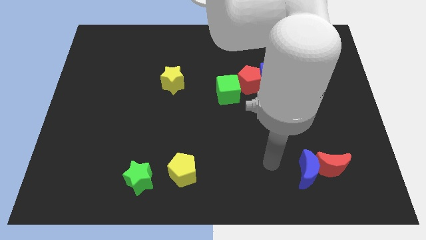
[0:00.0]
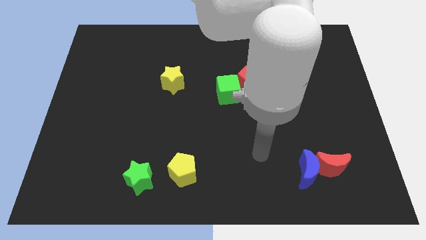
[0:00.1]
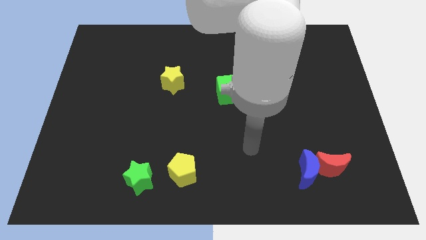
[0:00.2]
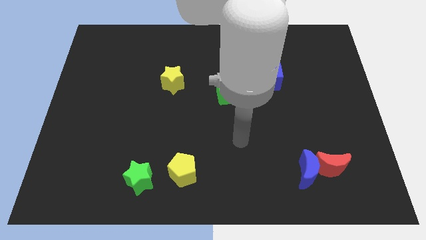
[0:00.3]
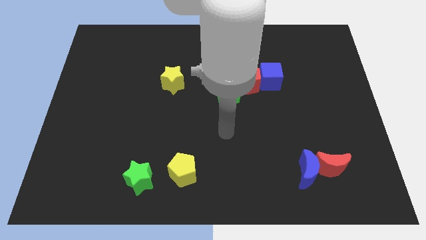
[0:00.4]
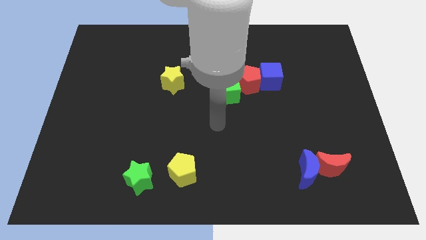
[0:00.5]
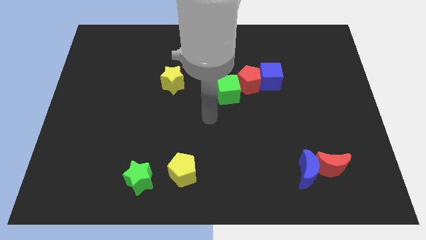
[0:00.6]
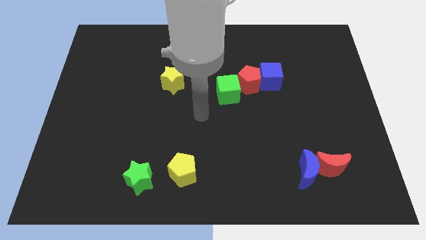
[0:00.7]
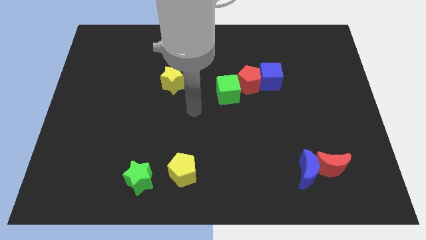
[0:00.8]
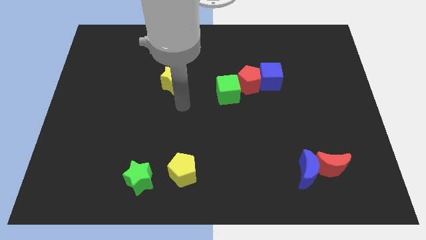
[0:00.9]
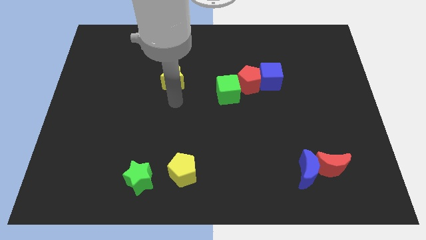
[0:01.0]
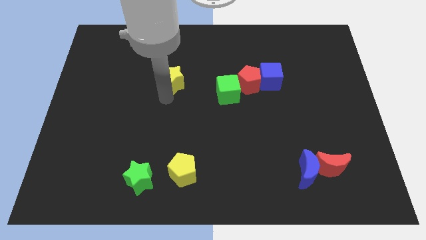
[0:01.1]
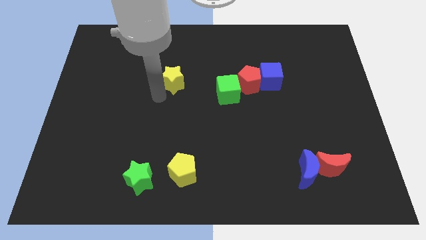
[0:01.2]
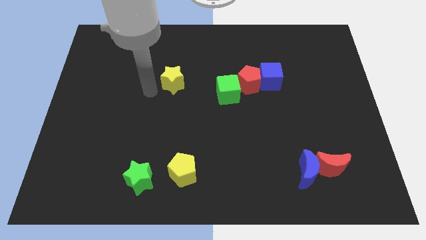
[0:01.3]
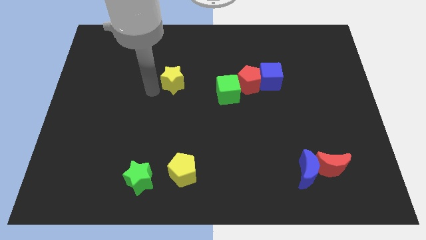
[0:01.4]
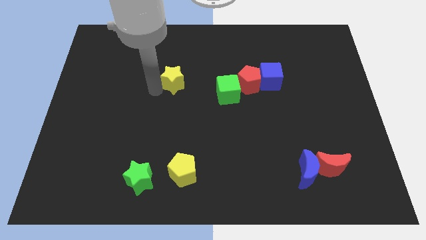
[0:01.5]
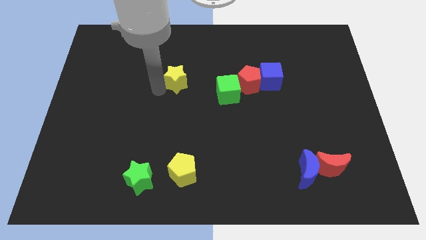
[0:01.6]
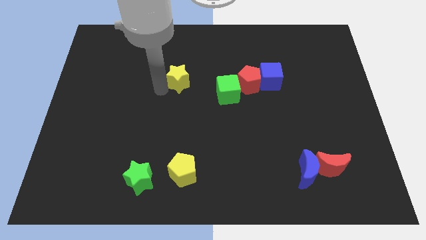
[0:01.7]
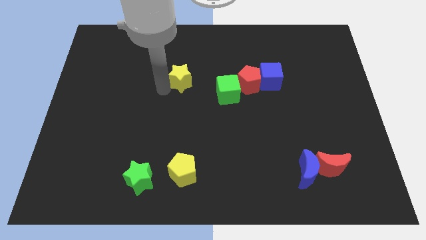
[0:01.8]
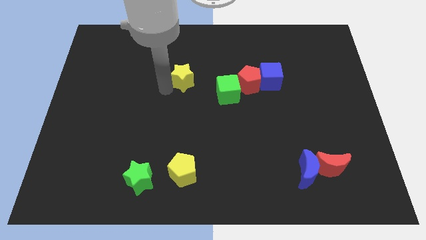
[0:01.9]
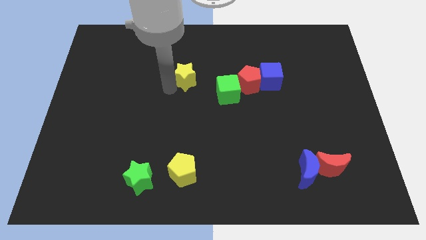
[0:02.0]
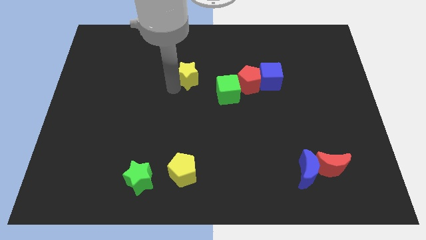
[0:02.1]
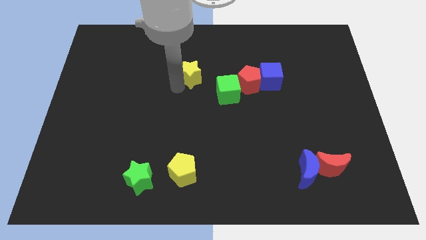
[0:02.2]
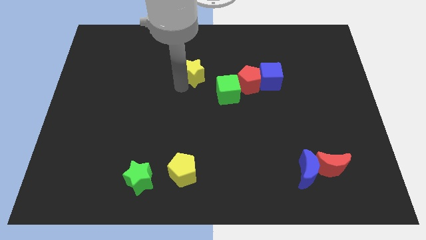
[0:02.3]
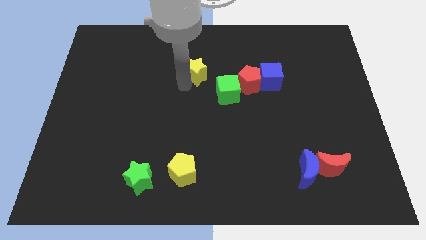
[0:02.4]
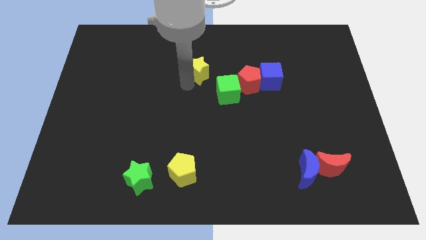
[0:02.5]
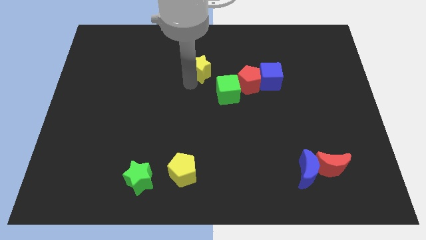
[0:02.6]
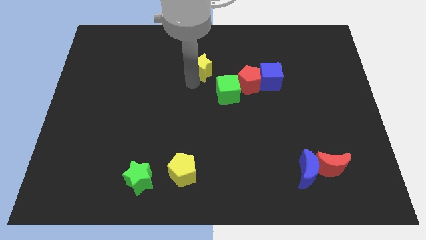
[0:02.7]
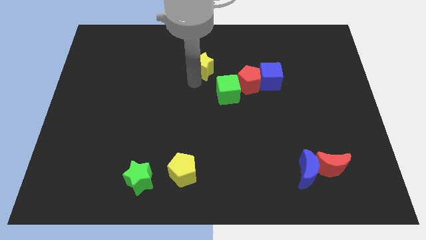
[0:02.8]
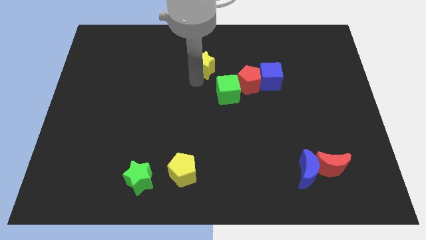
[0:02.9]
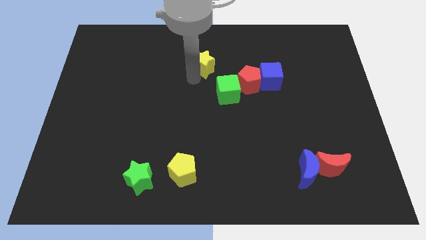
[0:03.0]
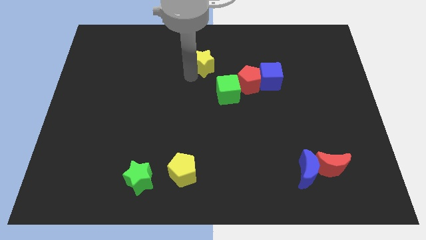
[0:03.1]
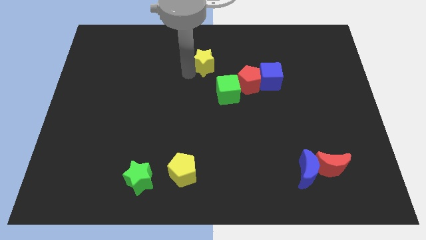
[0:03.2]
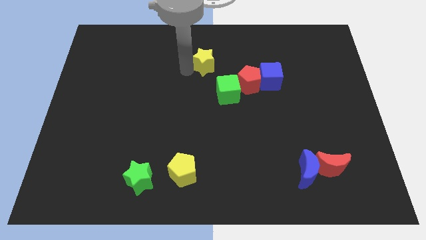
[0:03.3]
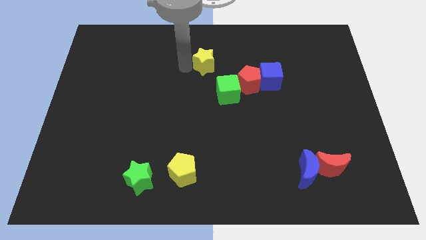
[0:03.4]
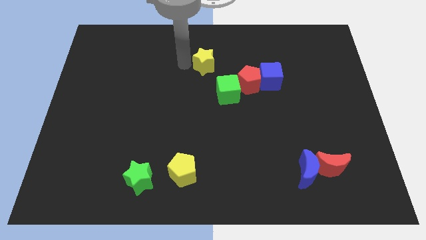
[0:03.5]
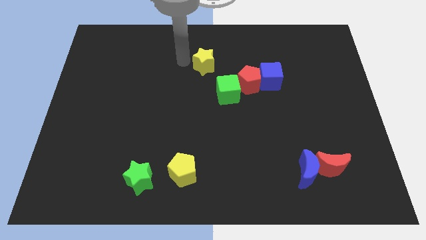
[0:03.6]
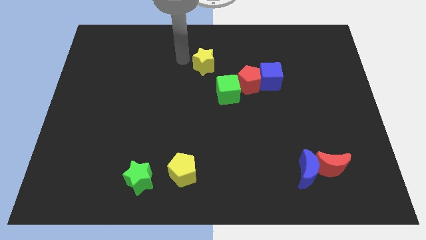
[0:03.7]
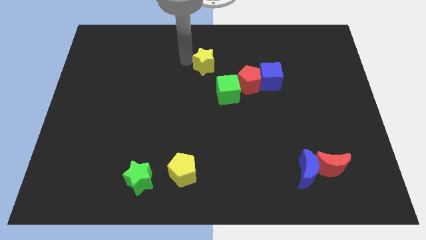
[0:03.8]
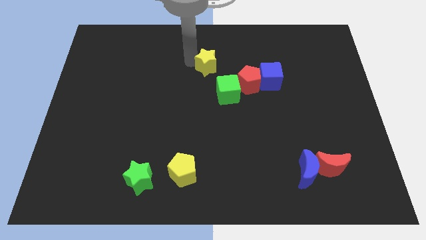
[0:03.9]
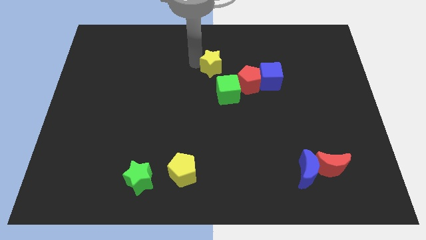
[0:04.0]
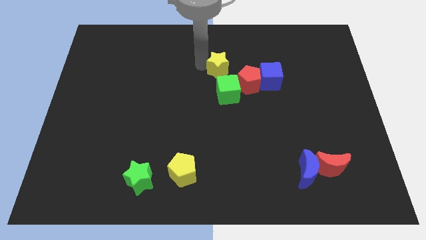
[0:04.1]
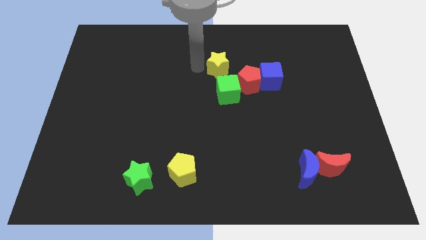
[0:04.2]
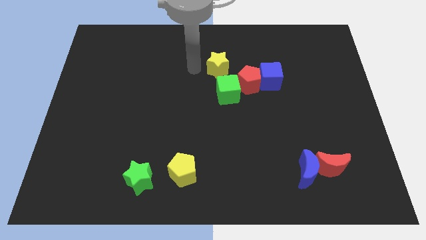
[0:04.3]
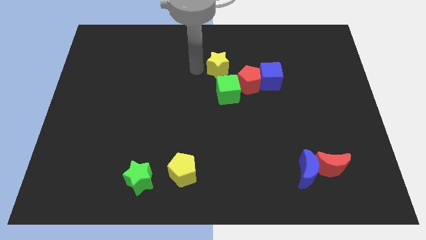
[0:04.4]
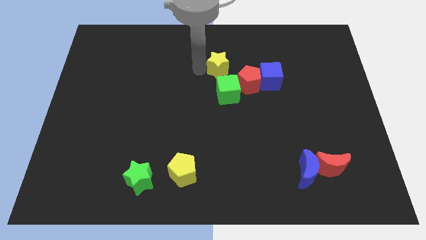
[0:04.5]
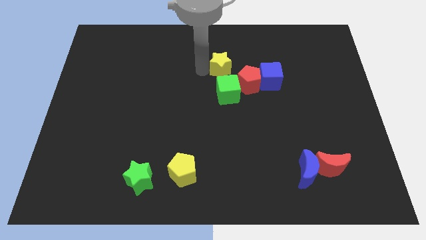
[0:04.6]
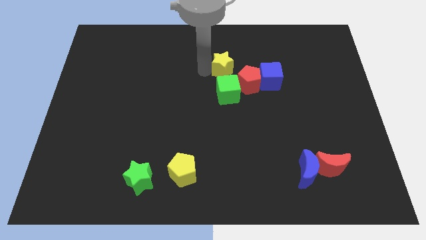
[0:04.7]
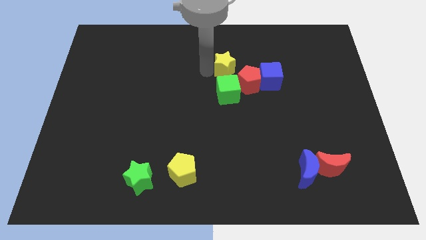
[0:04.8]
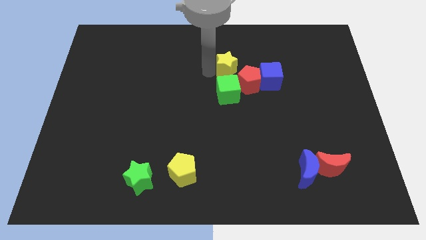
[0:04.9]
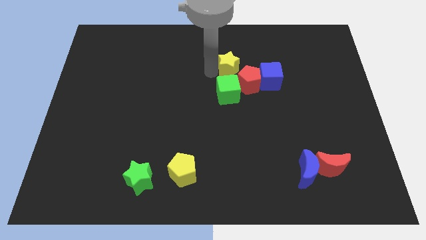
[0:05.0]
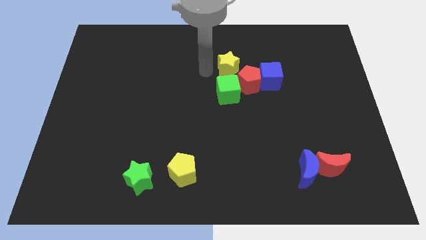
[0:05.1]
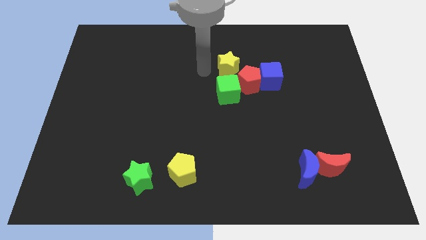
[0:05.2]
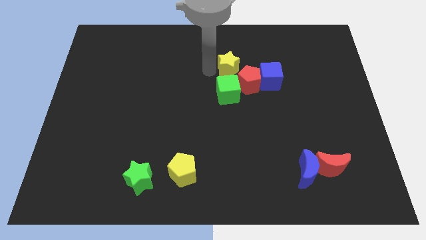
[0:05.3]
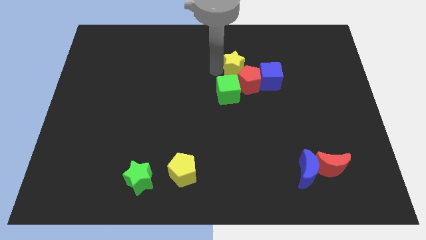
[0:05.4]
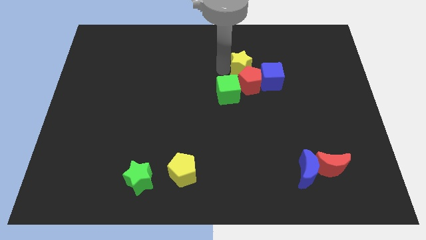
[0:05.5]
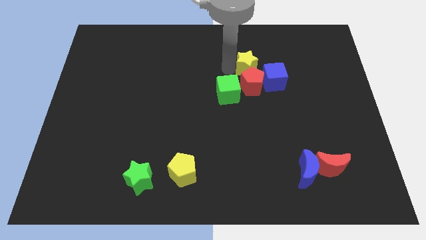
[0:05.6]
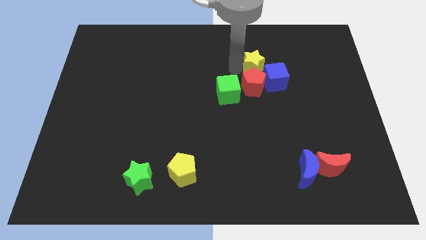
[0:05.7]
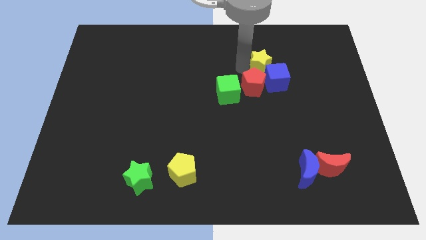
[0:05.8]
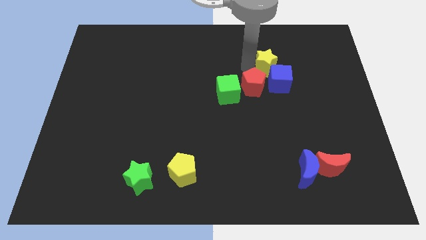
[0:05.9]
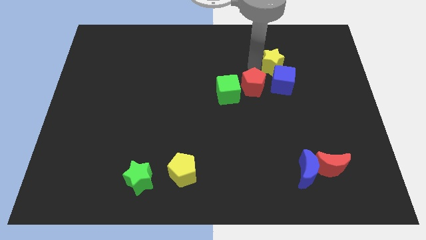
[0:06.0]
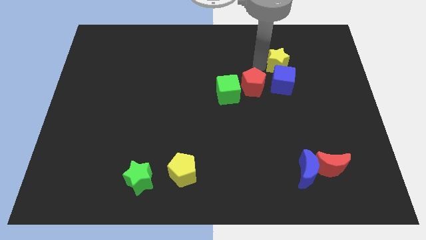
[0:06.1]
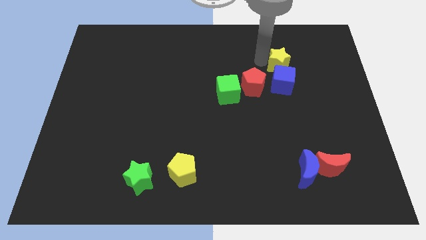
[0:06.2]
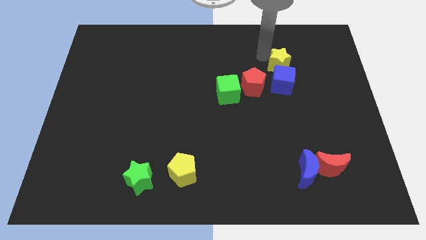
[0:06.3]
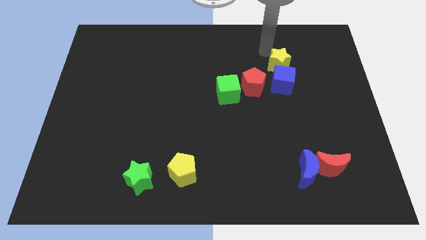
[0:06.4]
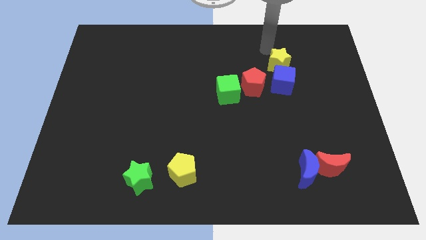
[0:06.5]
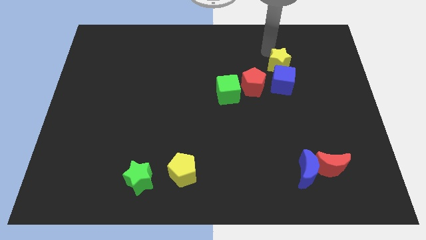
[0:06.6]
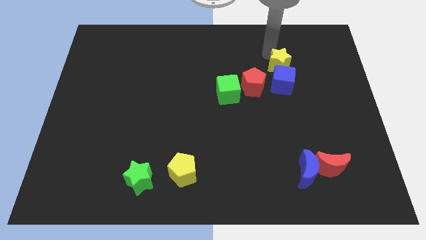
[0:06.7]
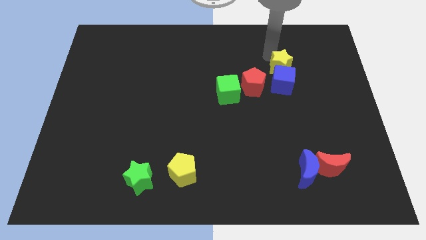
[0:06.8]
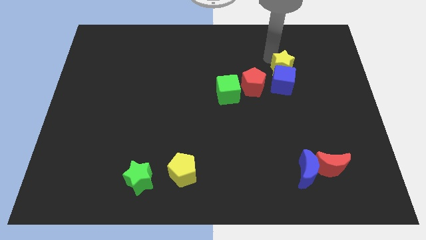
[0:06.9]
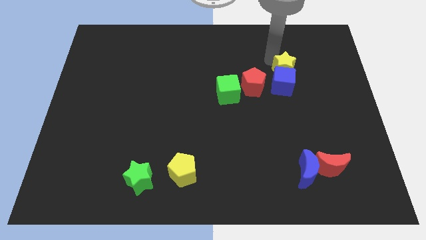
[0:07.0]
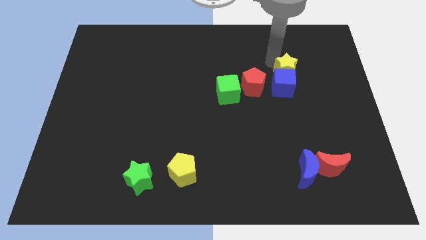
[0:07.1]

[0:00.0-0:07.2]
move the yellow star just right of the red pentagon
